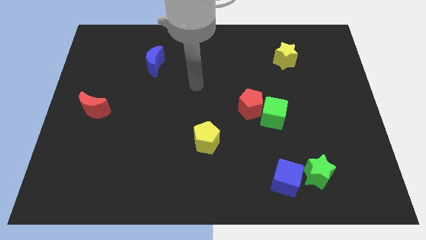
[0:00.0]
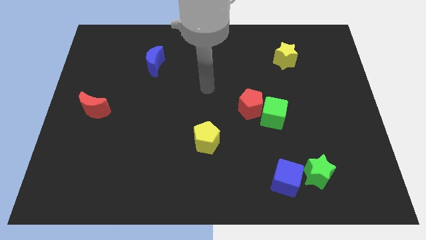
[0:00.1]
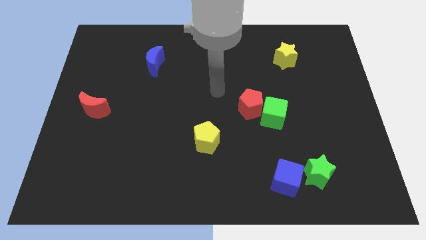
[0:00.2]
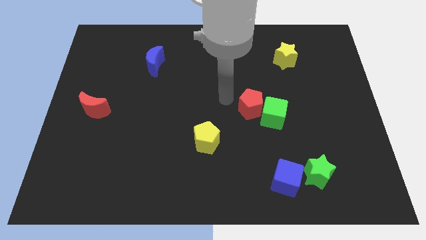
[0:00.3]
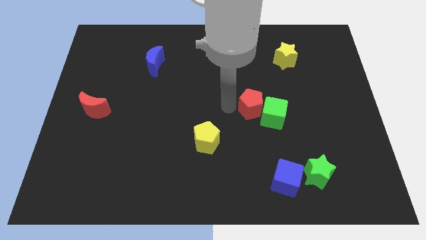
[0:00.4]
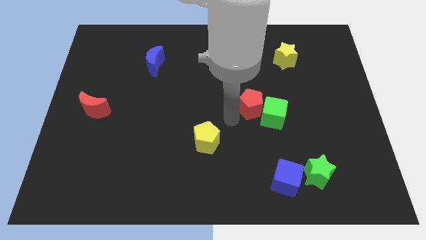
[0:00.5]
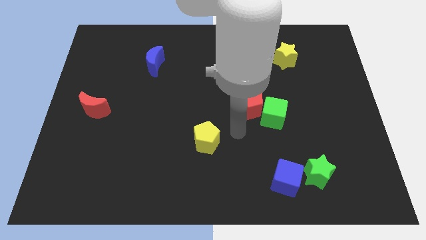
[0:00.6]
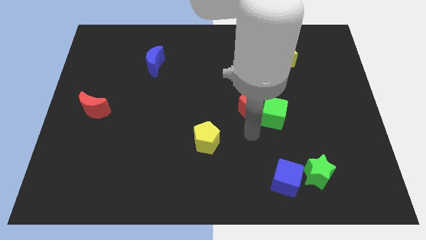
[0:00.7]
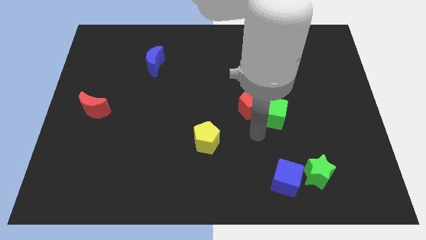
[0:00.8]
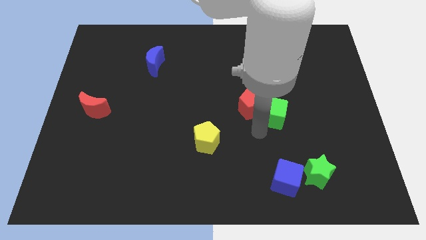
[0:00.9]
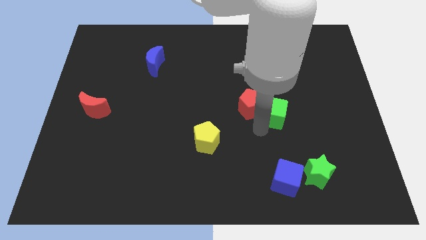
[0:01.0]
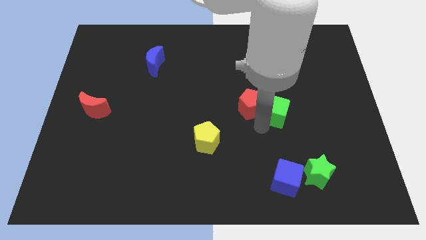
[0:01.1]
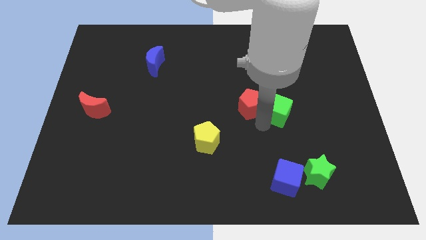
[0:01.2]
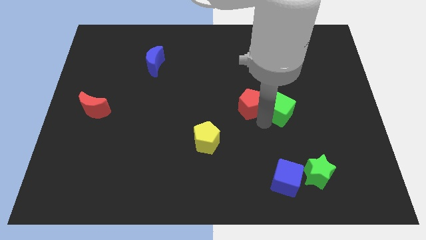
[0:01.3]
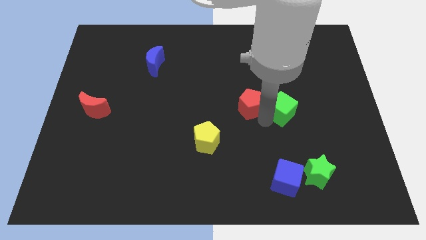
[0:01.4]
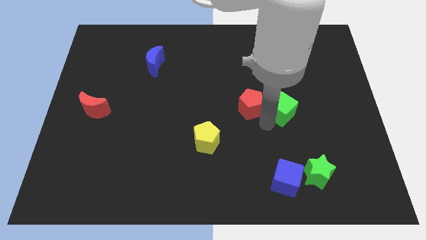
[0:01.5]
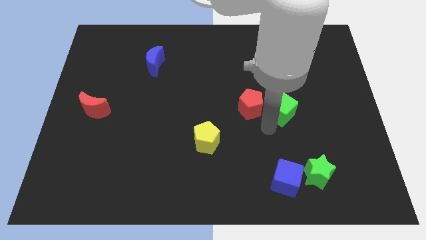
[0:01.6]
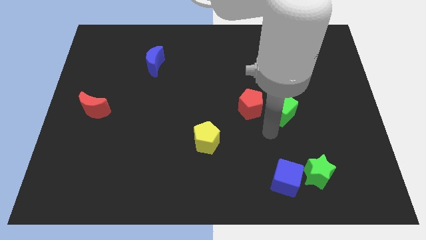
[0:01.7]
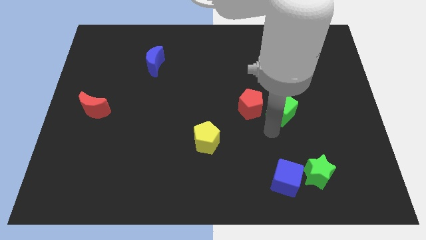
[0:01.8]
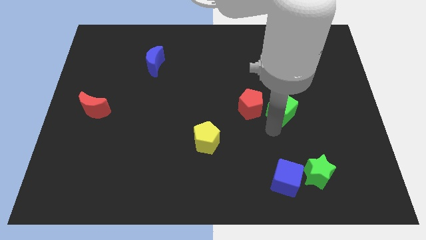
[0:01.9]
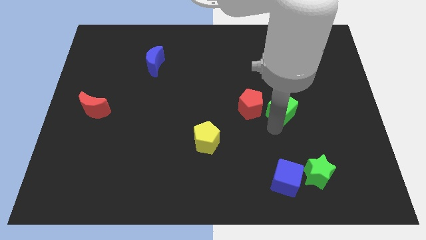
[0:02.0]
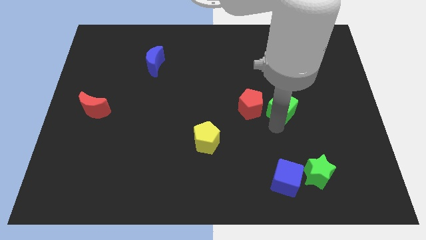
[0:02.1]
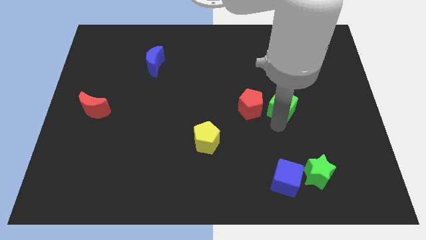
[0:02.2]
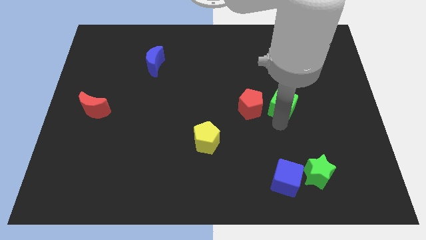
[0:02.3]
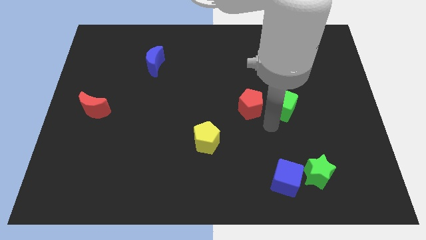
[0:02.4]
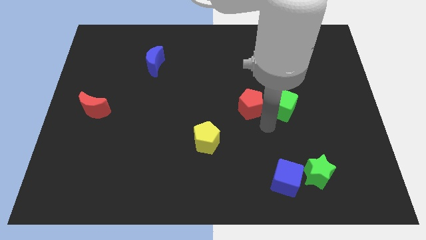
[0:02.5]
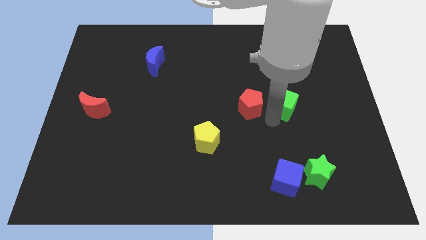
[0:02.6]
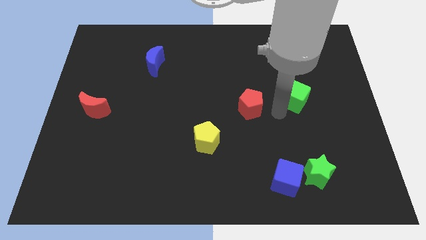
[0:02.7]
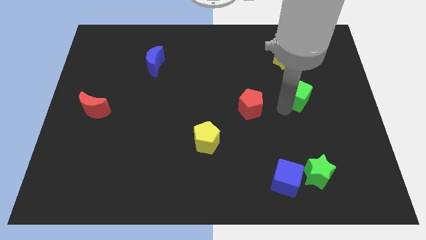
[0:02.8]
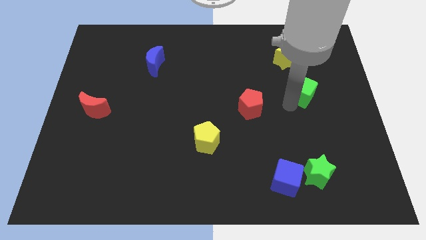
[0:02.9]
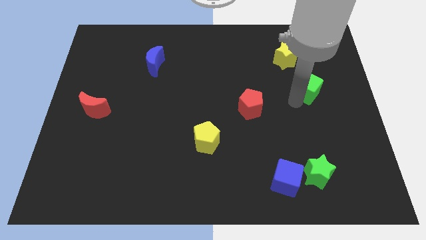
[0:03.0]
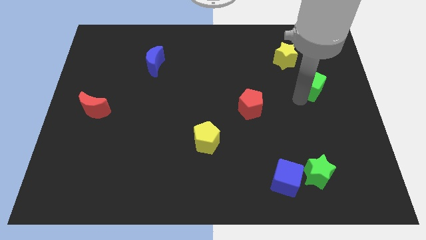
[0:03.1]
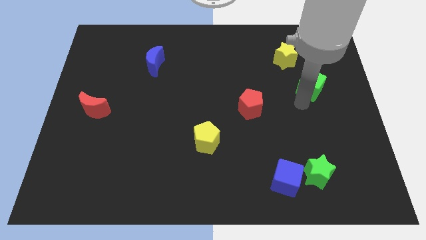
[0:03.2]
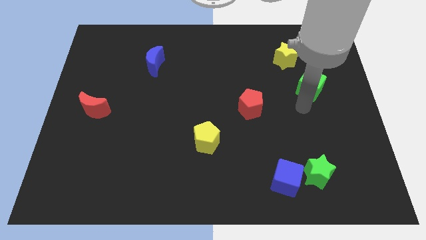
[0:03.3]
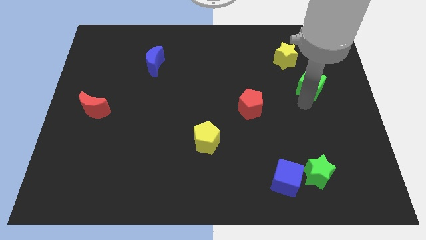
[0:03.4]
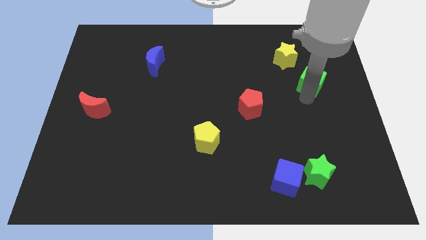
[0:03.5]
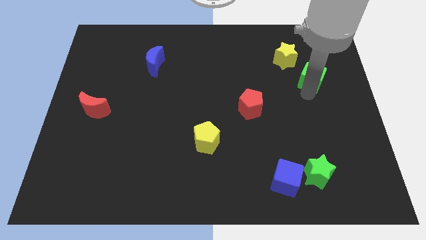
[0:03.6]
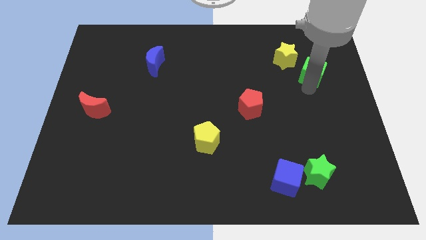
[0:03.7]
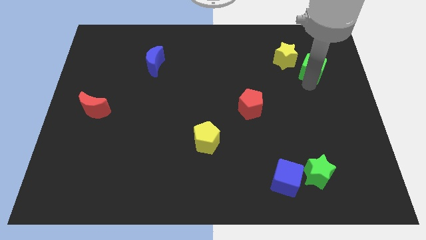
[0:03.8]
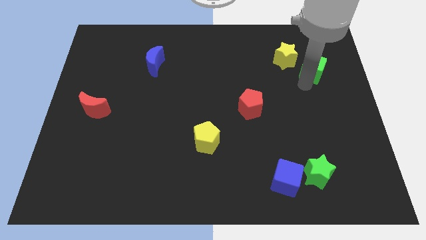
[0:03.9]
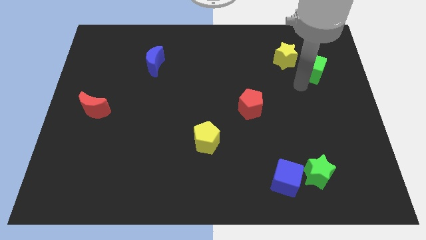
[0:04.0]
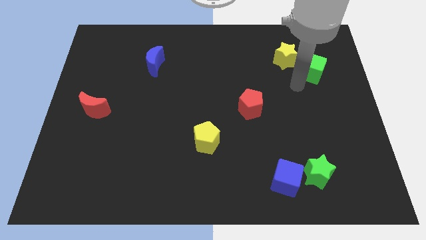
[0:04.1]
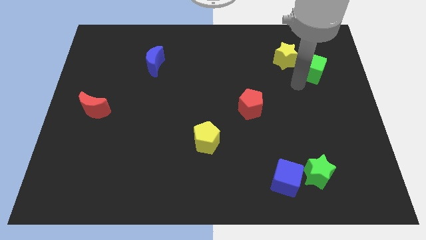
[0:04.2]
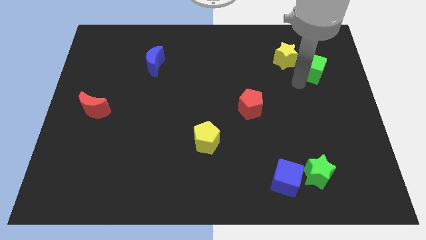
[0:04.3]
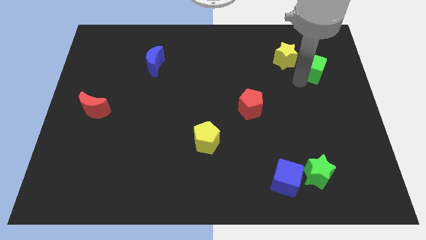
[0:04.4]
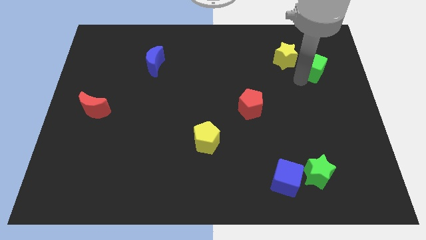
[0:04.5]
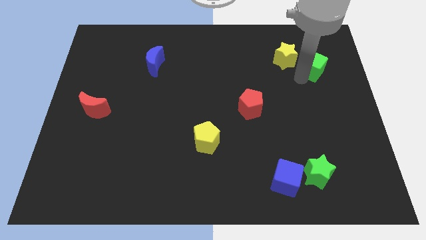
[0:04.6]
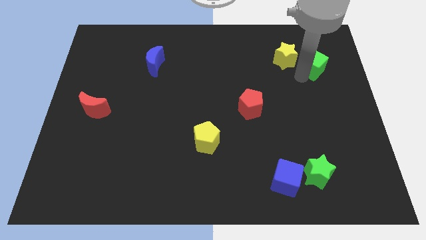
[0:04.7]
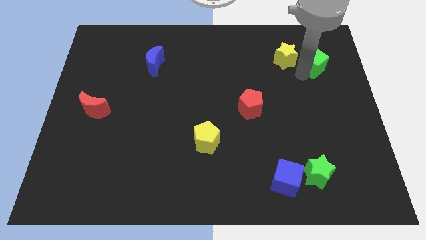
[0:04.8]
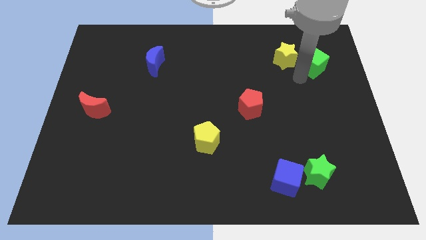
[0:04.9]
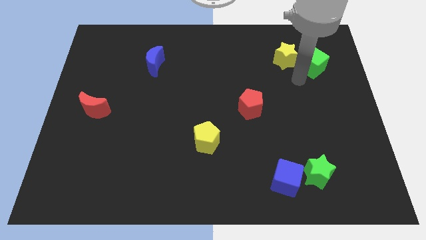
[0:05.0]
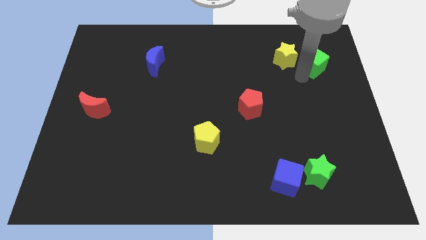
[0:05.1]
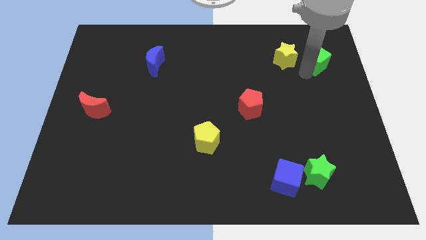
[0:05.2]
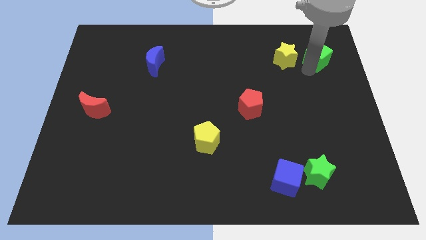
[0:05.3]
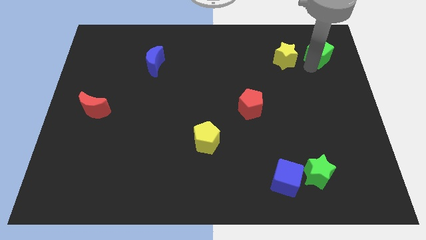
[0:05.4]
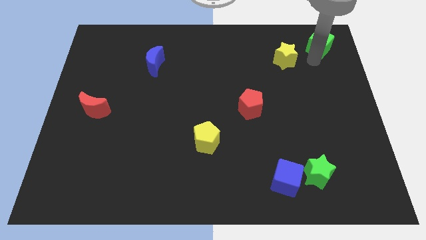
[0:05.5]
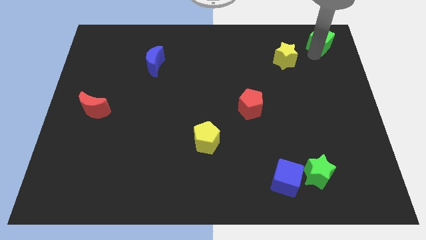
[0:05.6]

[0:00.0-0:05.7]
push the green cube to the upper right corner

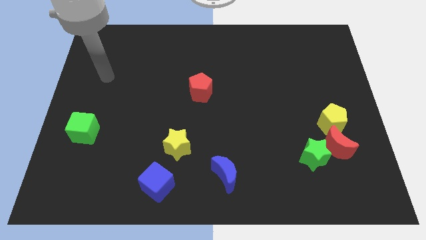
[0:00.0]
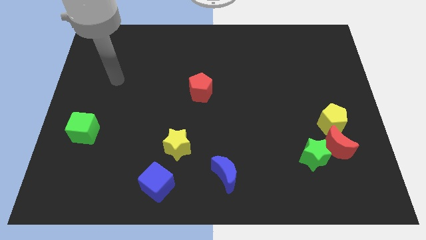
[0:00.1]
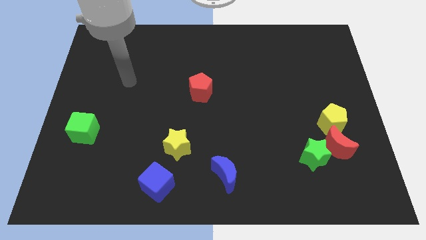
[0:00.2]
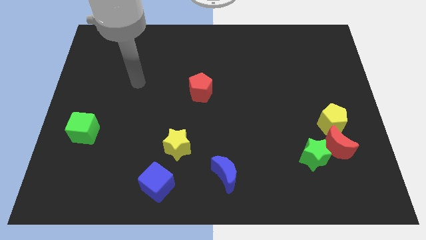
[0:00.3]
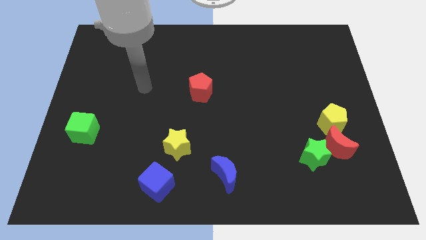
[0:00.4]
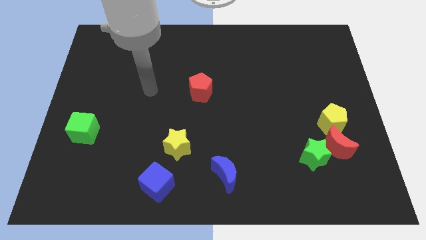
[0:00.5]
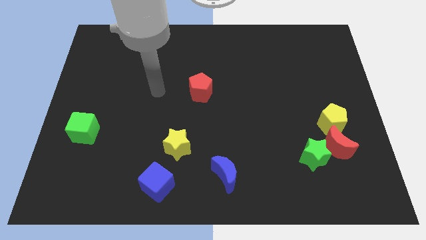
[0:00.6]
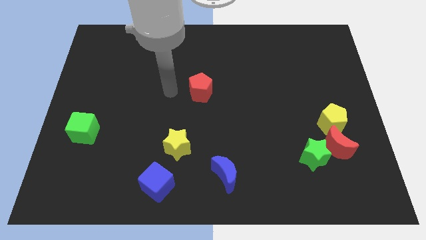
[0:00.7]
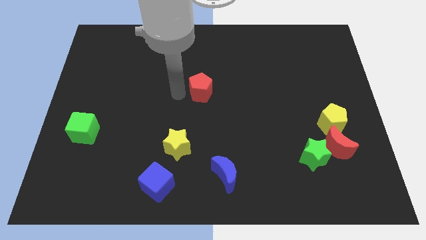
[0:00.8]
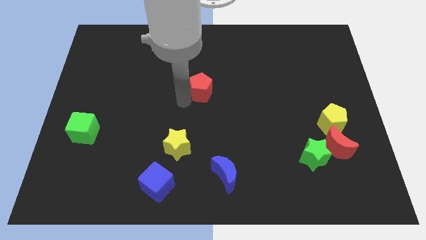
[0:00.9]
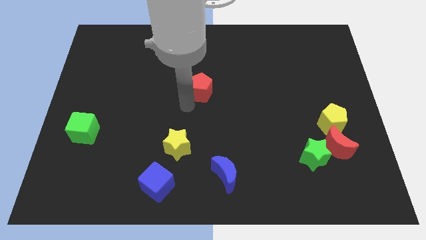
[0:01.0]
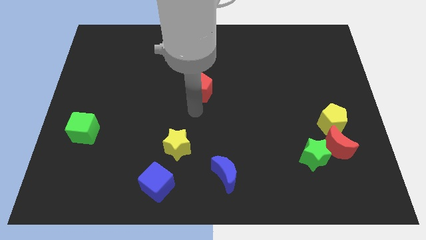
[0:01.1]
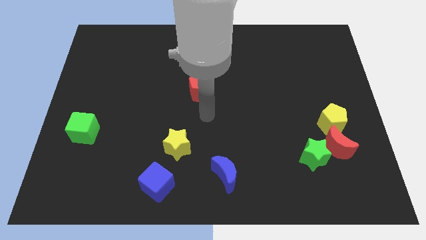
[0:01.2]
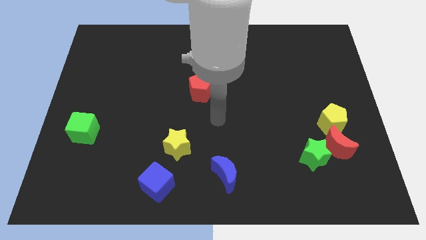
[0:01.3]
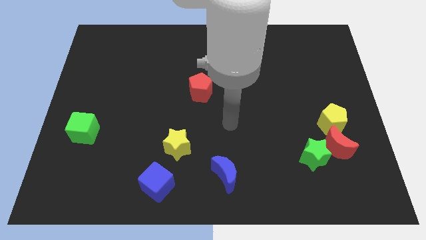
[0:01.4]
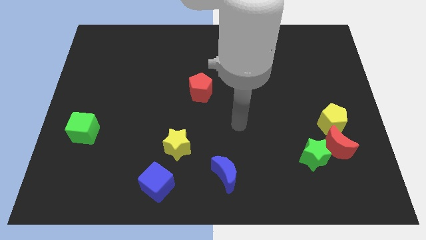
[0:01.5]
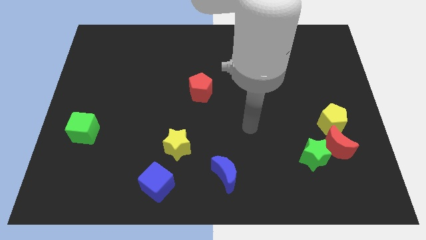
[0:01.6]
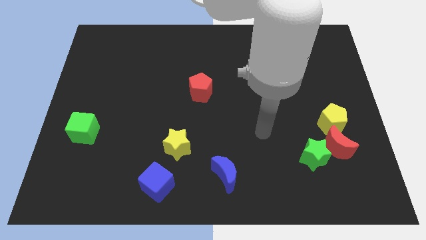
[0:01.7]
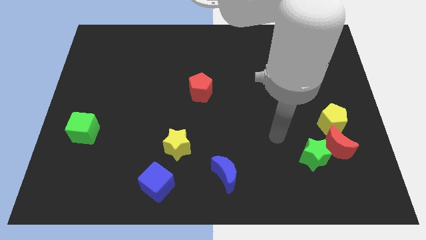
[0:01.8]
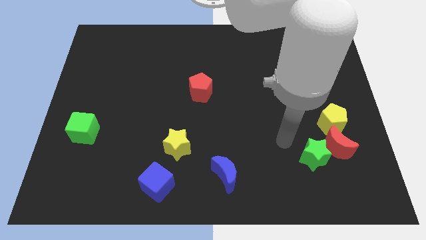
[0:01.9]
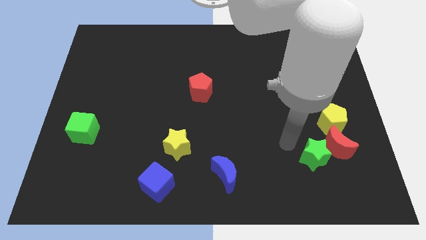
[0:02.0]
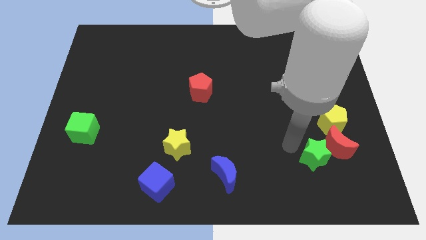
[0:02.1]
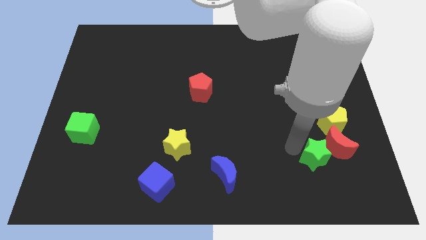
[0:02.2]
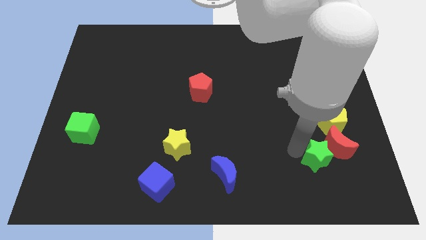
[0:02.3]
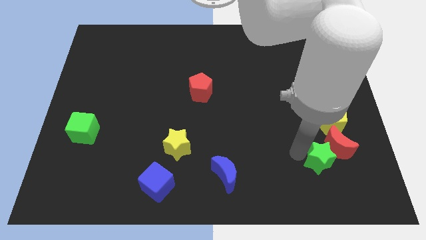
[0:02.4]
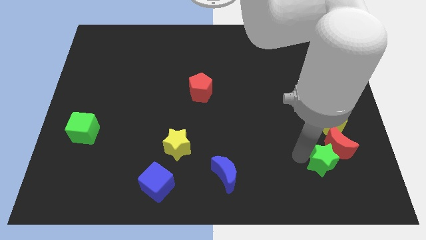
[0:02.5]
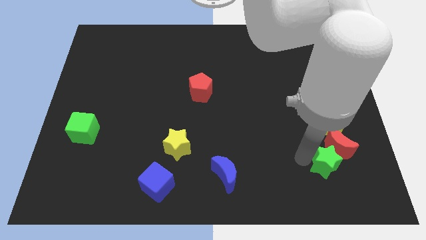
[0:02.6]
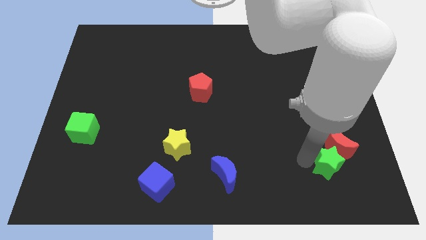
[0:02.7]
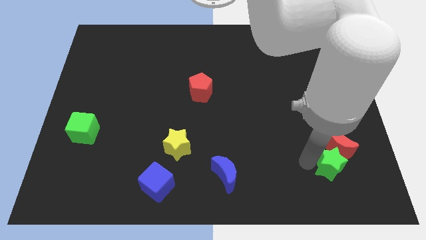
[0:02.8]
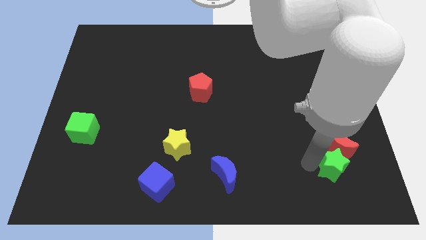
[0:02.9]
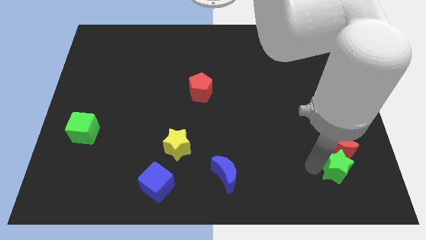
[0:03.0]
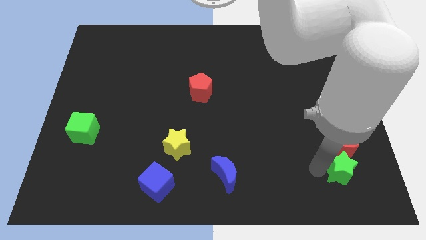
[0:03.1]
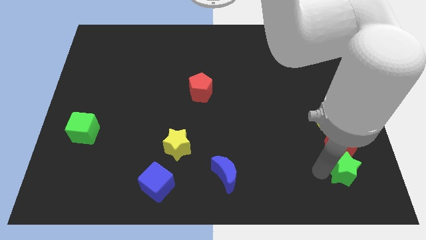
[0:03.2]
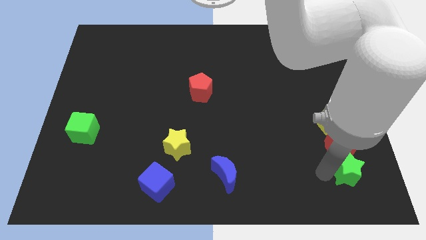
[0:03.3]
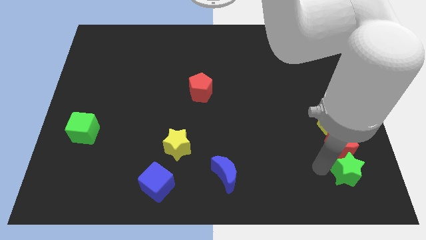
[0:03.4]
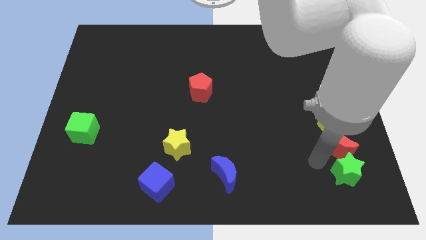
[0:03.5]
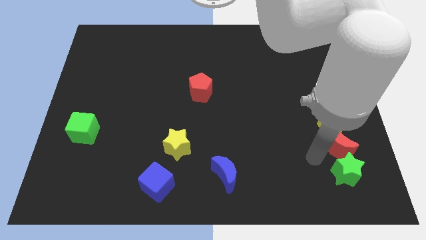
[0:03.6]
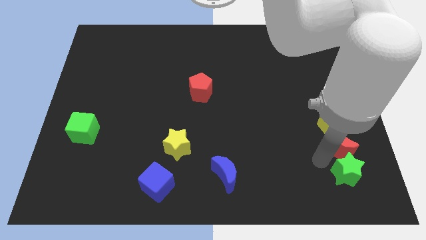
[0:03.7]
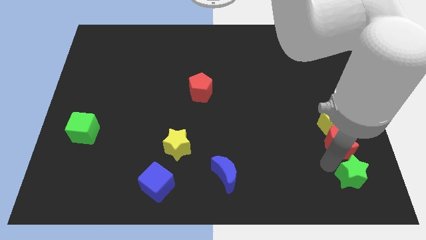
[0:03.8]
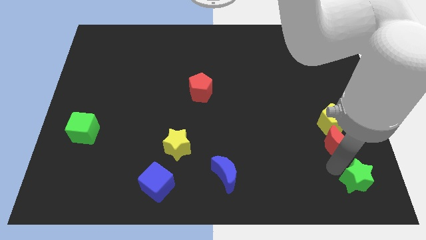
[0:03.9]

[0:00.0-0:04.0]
push the green star to the bottom right of the board
